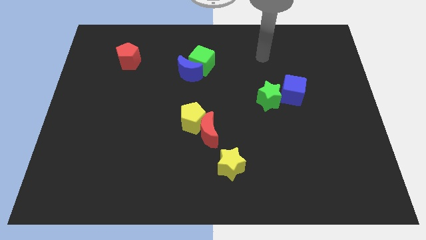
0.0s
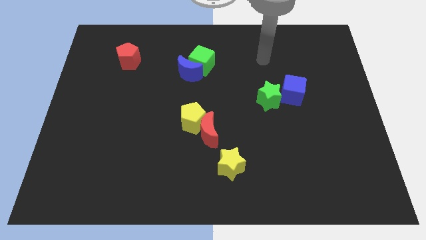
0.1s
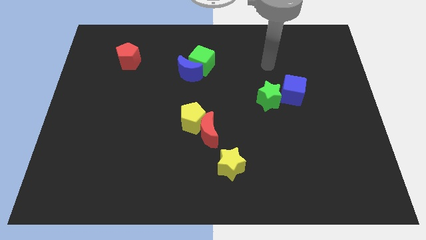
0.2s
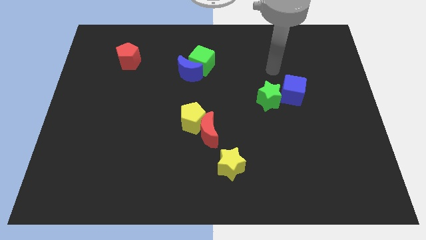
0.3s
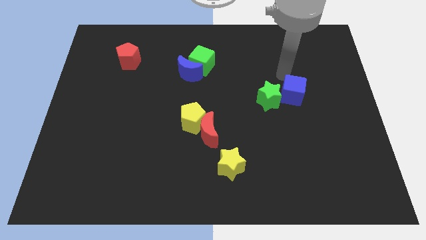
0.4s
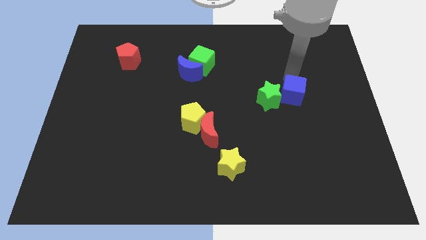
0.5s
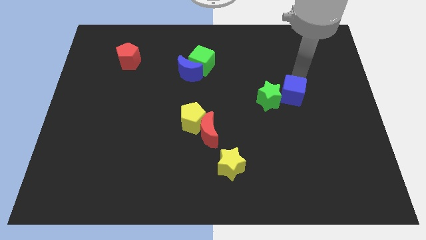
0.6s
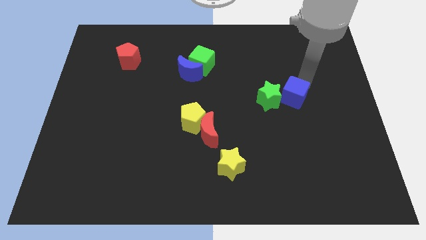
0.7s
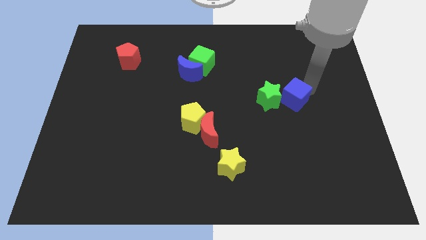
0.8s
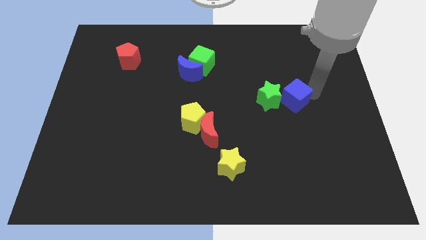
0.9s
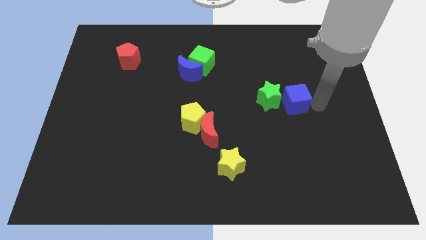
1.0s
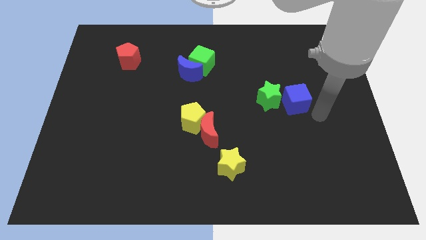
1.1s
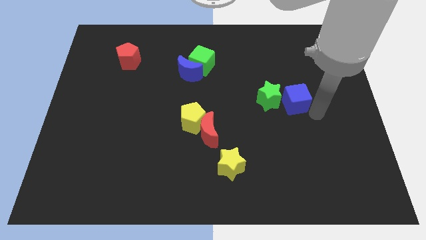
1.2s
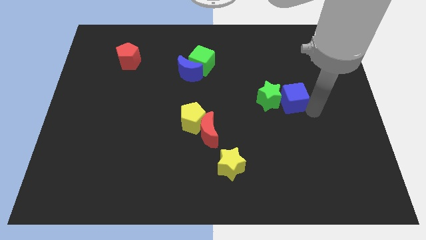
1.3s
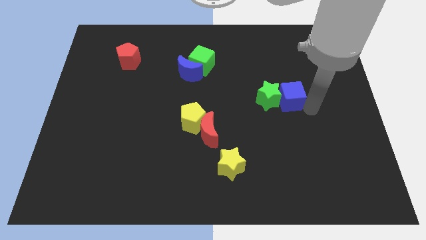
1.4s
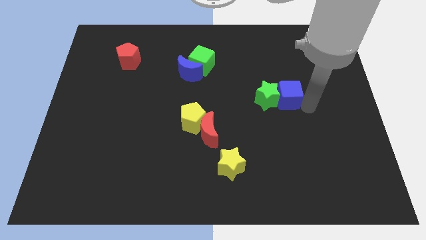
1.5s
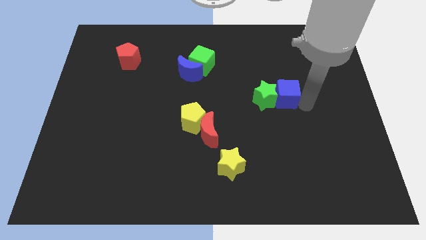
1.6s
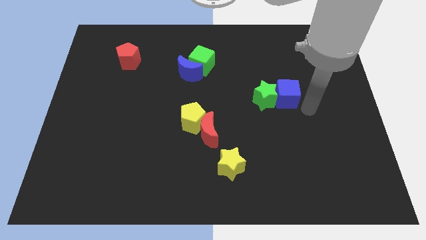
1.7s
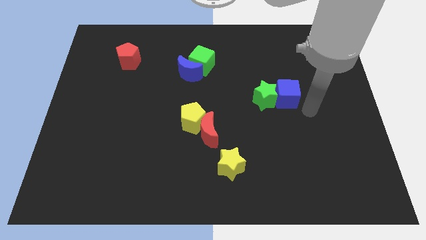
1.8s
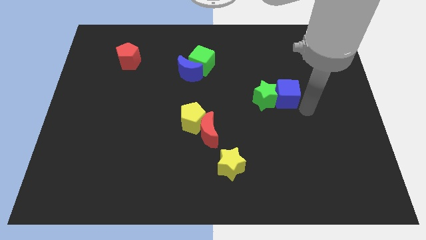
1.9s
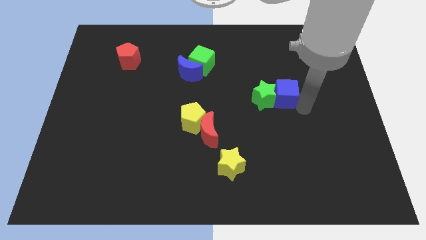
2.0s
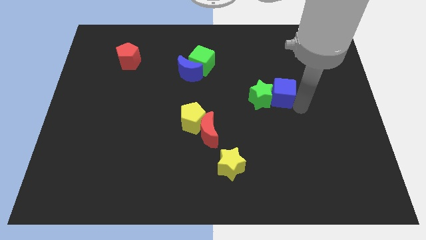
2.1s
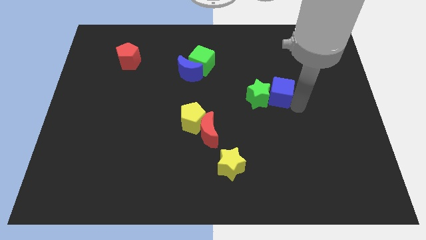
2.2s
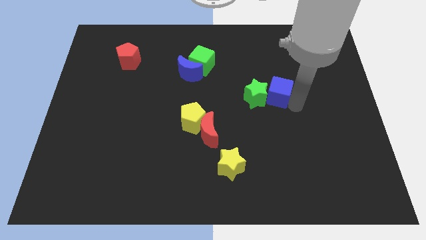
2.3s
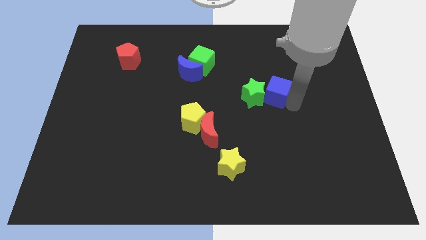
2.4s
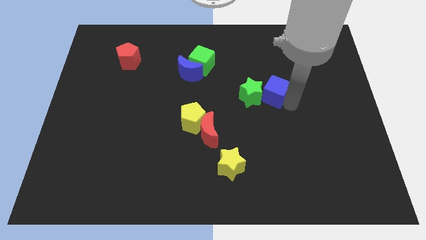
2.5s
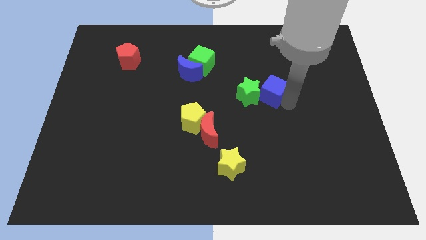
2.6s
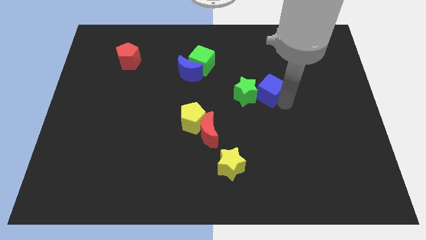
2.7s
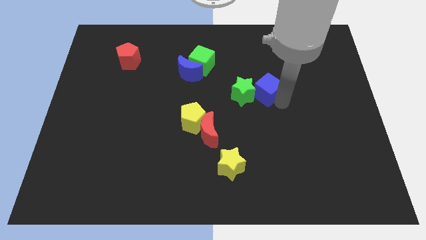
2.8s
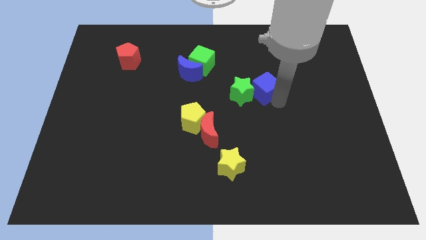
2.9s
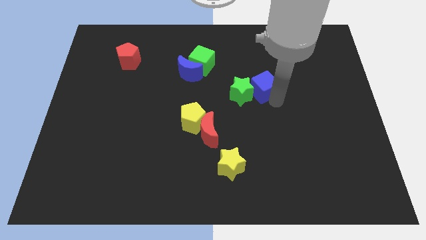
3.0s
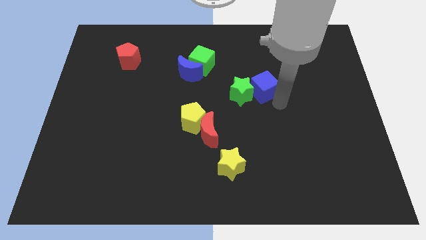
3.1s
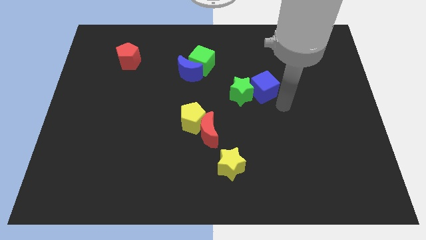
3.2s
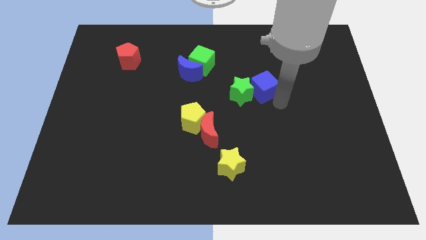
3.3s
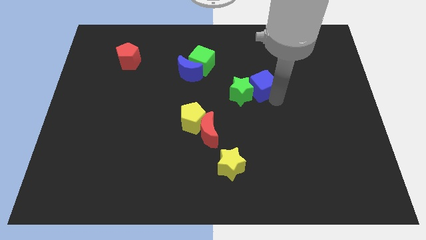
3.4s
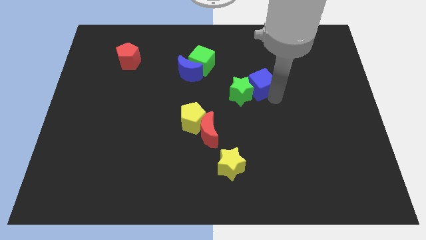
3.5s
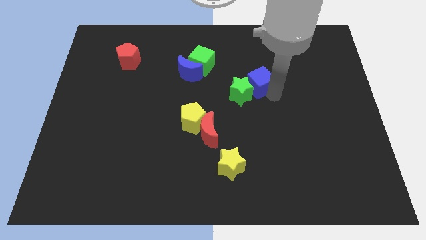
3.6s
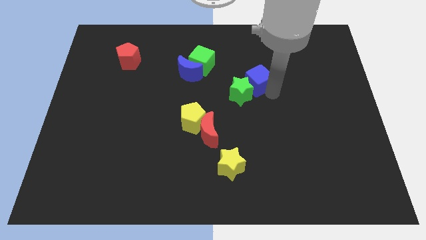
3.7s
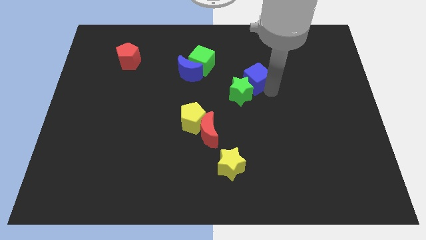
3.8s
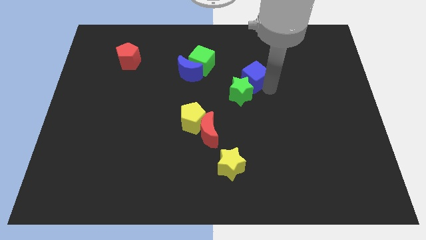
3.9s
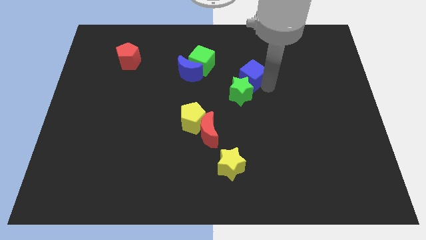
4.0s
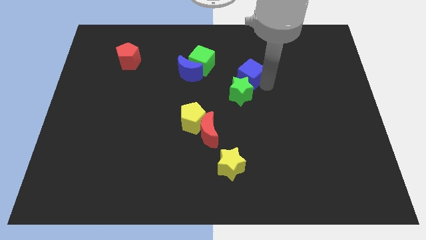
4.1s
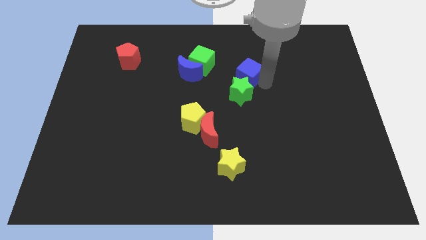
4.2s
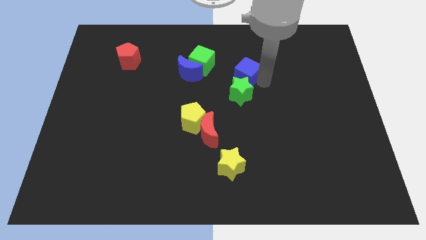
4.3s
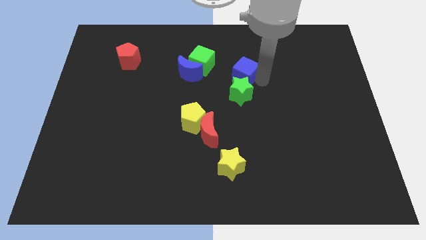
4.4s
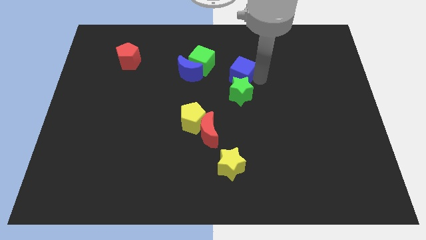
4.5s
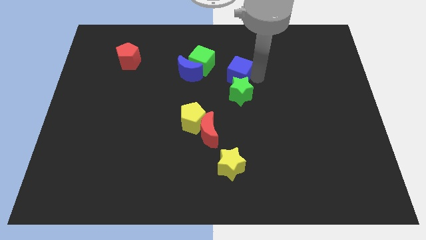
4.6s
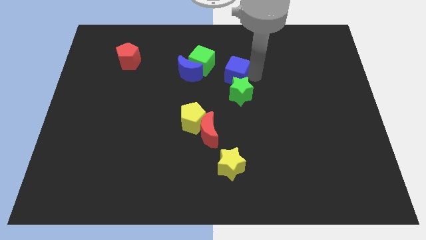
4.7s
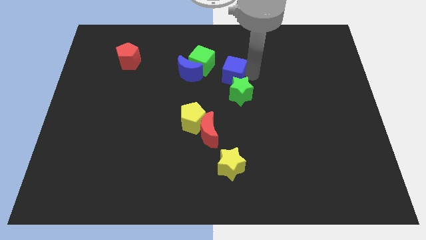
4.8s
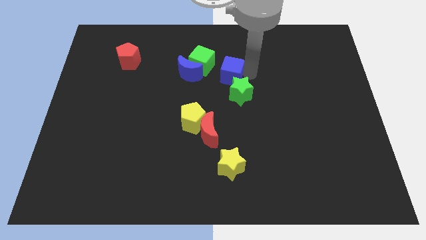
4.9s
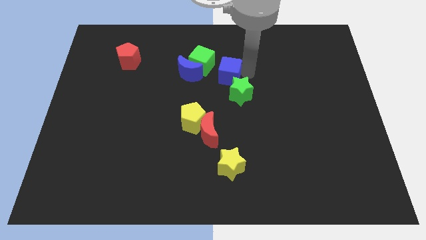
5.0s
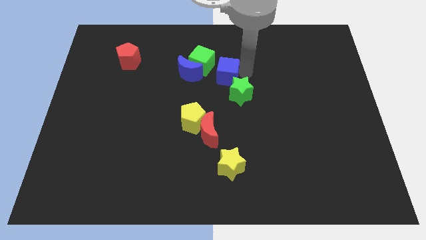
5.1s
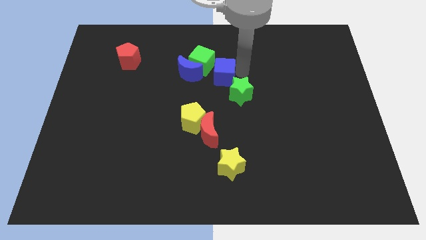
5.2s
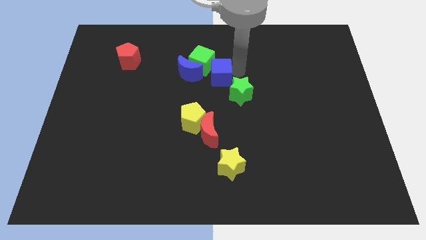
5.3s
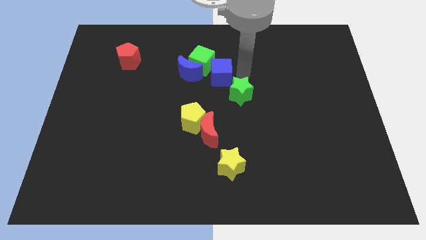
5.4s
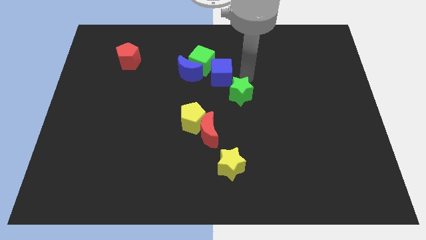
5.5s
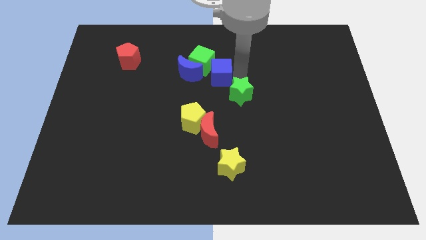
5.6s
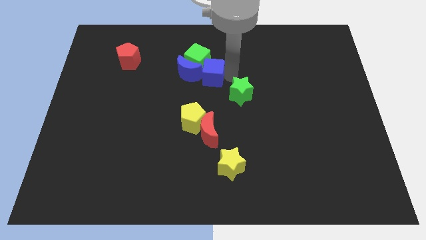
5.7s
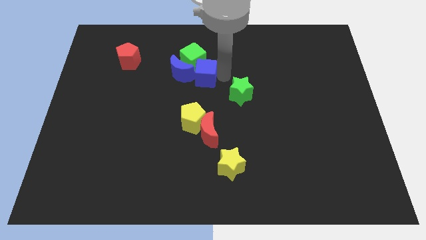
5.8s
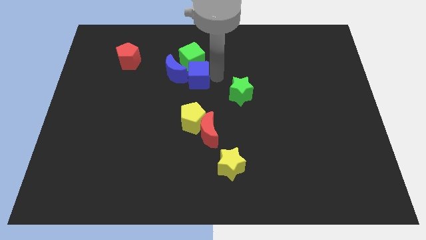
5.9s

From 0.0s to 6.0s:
move the blue cube to the blue moon

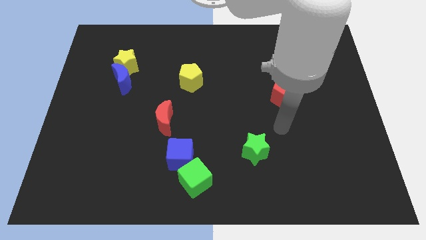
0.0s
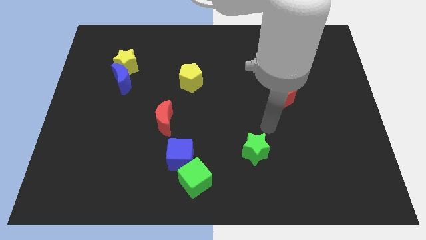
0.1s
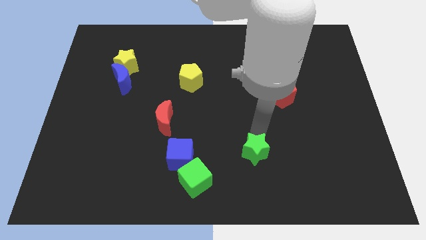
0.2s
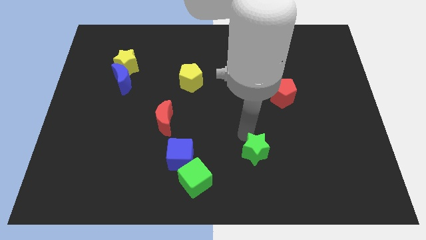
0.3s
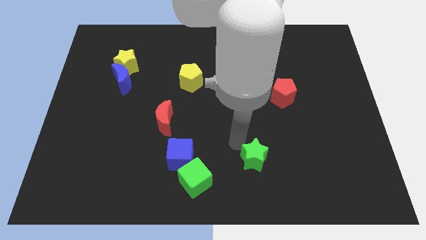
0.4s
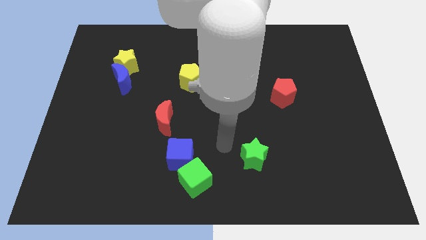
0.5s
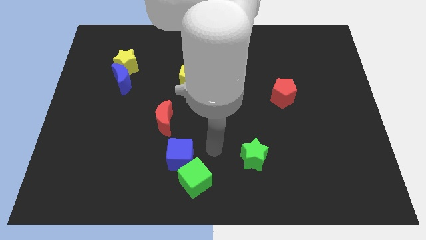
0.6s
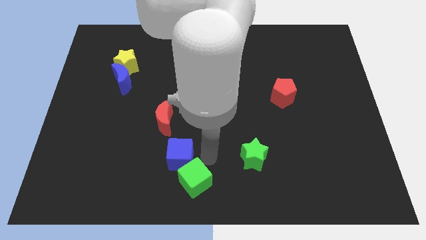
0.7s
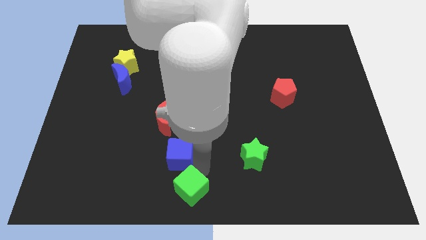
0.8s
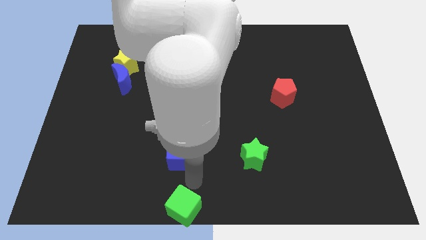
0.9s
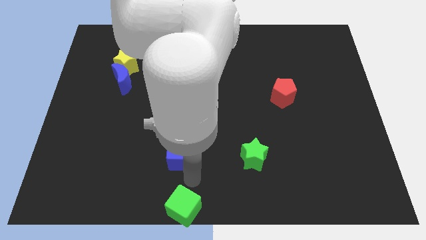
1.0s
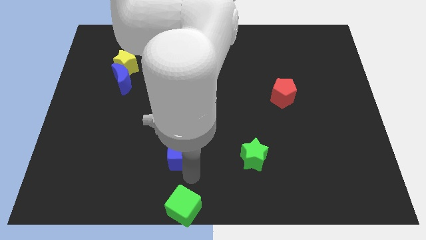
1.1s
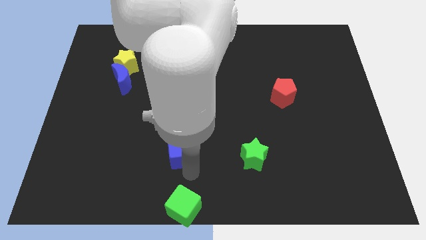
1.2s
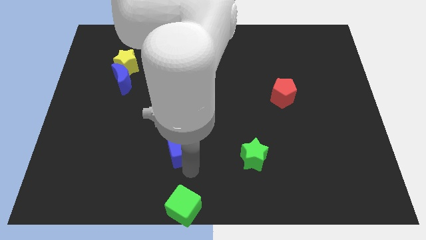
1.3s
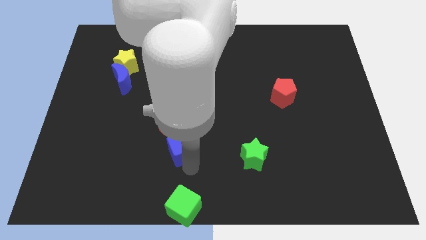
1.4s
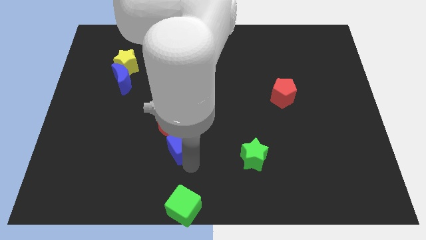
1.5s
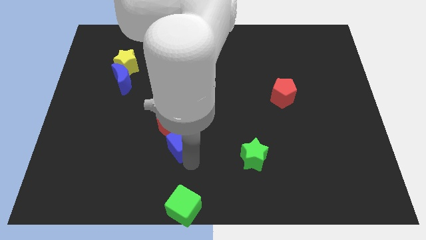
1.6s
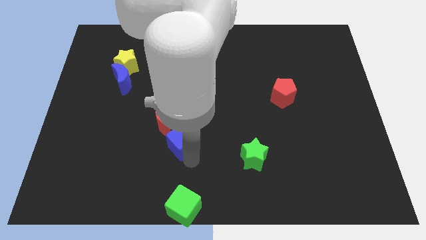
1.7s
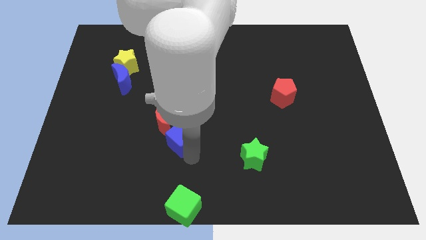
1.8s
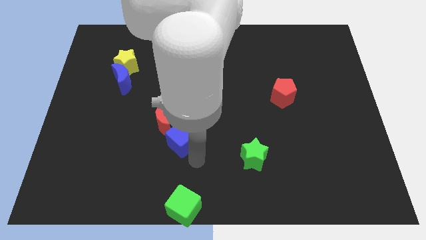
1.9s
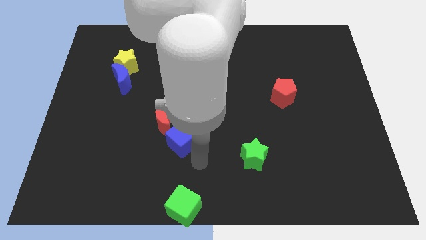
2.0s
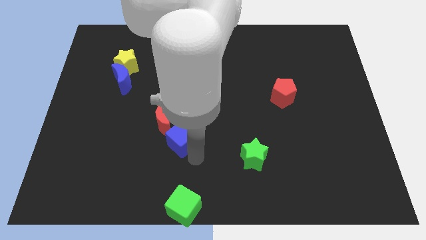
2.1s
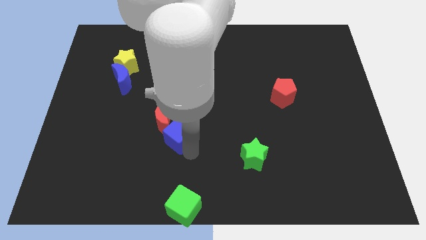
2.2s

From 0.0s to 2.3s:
move the blue cube next to the red moon
